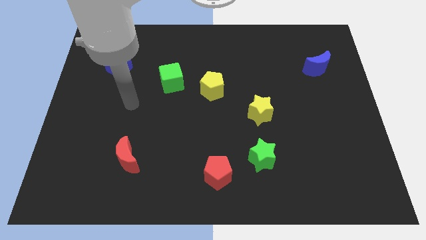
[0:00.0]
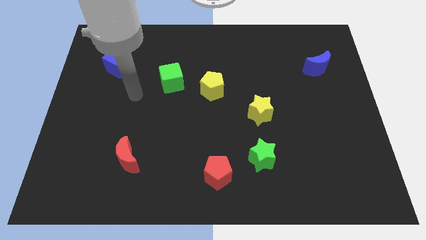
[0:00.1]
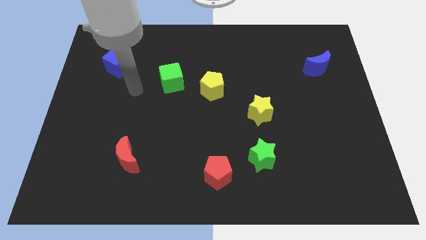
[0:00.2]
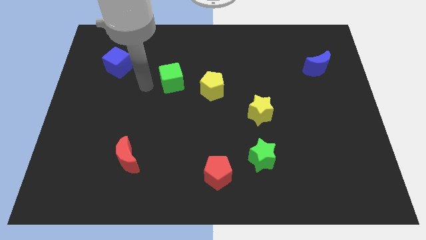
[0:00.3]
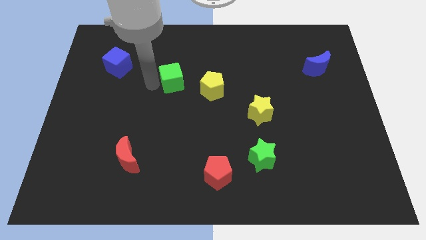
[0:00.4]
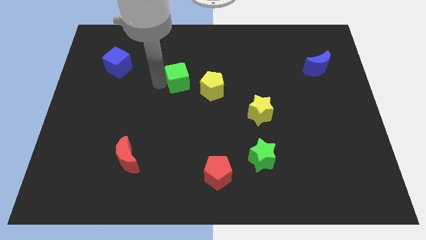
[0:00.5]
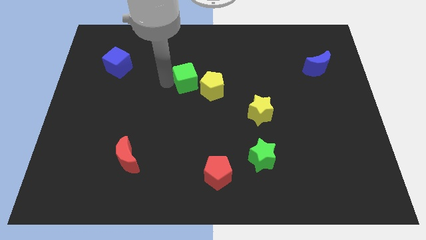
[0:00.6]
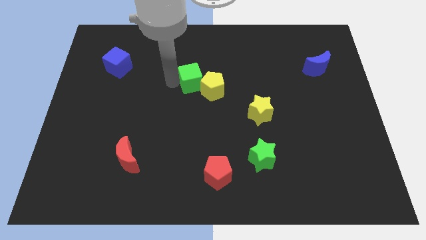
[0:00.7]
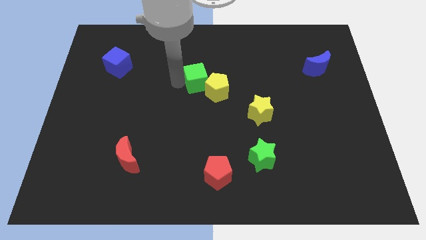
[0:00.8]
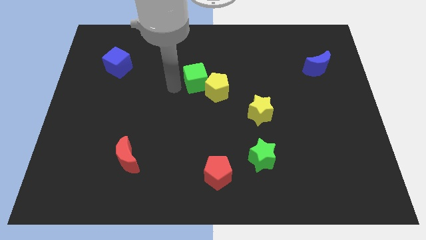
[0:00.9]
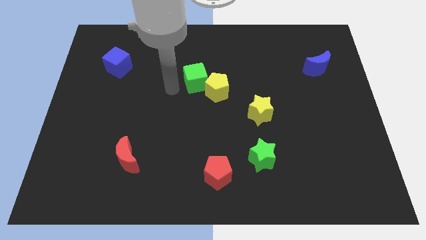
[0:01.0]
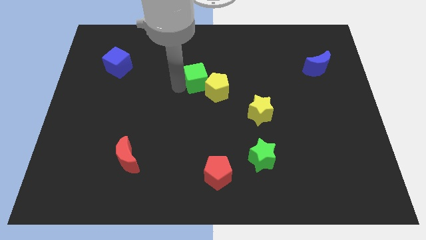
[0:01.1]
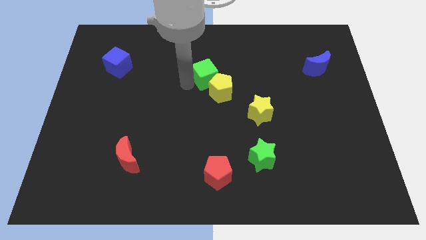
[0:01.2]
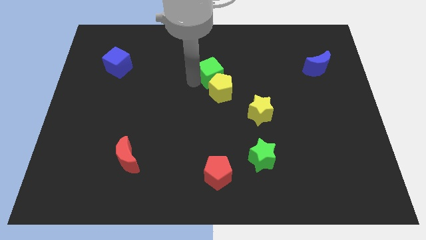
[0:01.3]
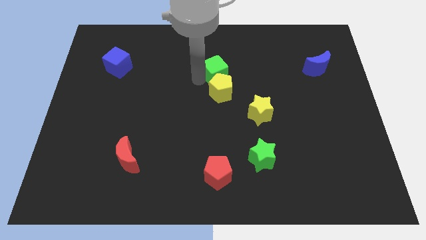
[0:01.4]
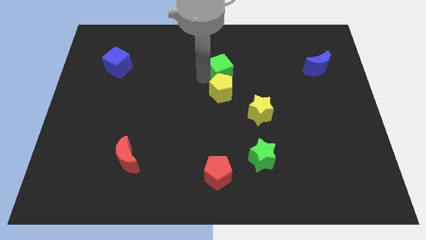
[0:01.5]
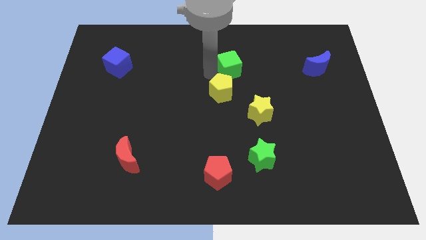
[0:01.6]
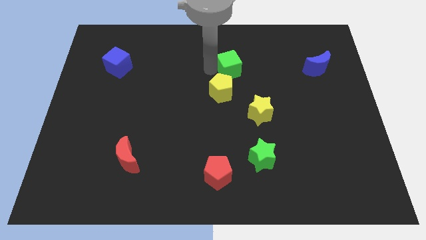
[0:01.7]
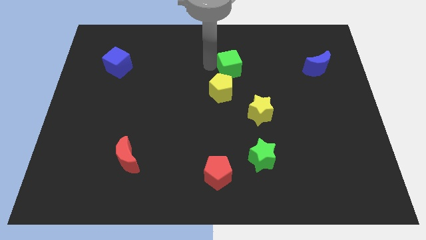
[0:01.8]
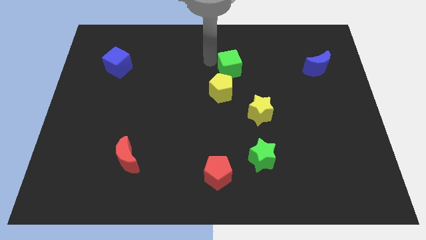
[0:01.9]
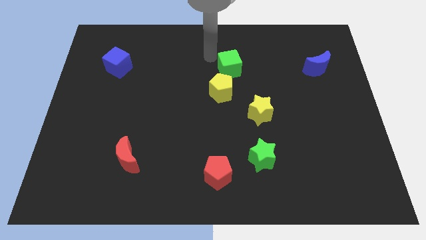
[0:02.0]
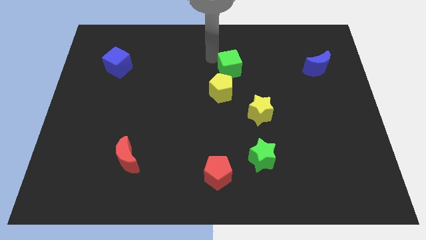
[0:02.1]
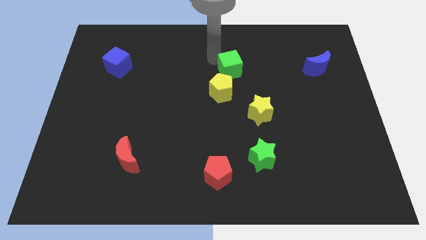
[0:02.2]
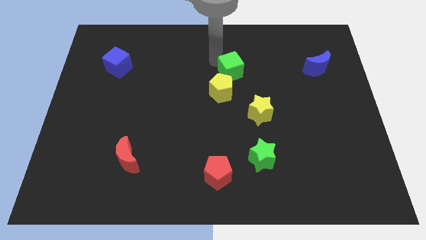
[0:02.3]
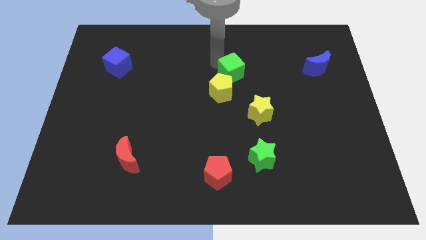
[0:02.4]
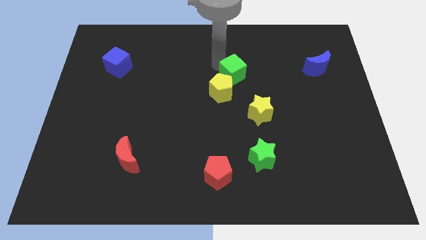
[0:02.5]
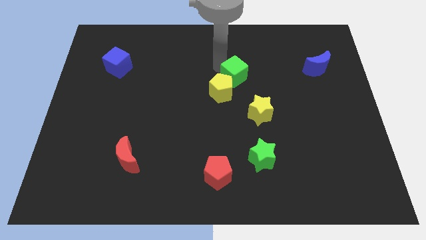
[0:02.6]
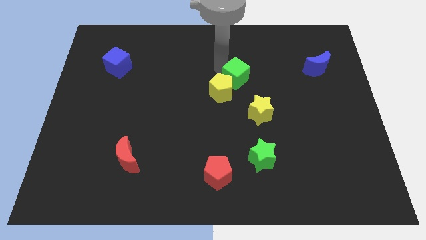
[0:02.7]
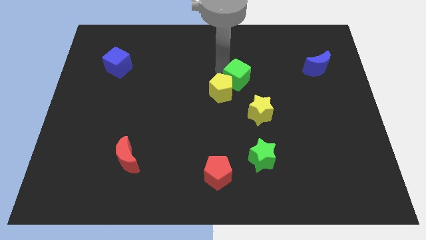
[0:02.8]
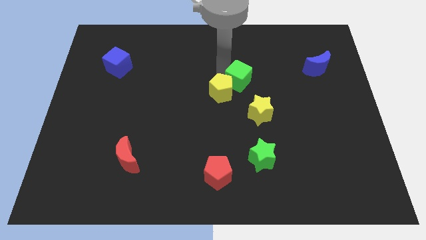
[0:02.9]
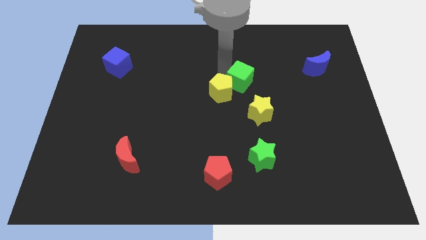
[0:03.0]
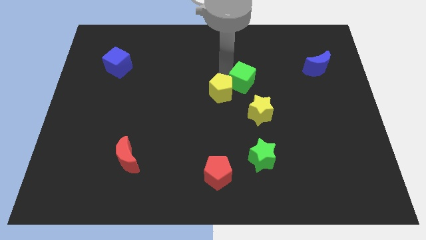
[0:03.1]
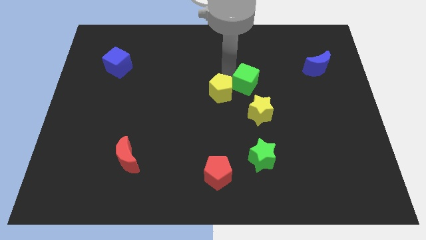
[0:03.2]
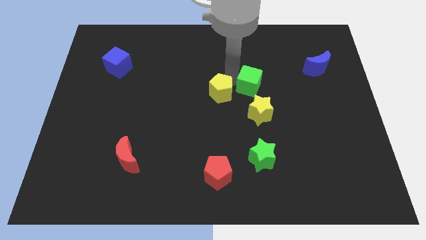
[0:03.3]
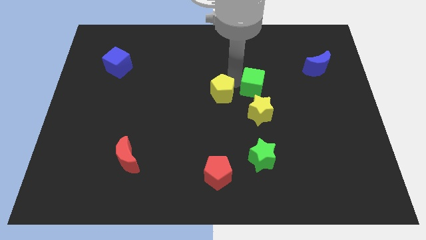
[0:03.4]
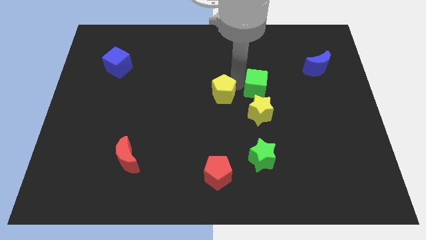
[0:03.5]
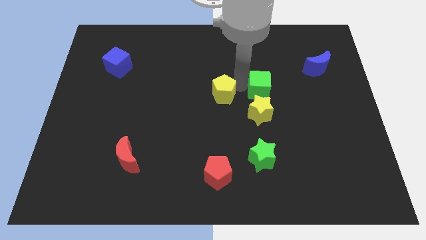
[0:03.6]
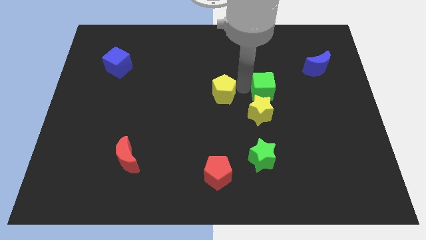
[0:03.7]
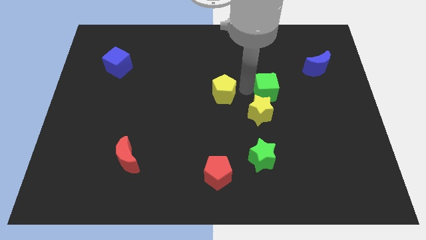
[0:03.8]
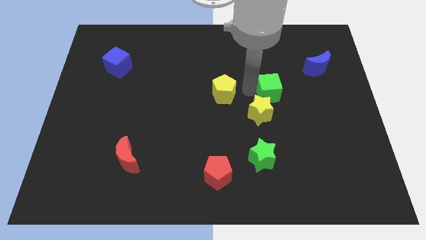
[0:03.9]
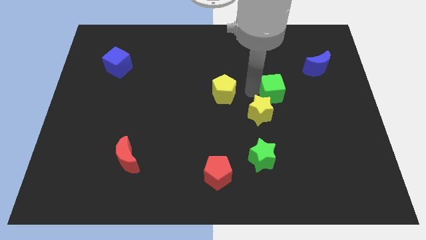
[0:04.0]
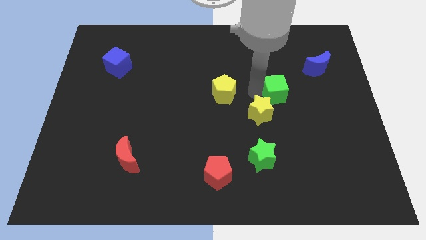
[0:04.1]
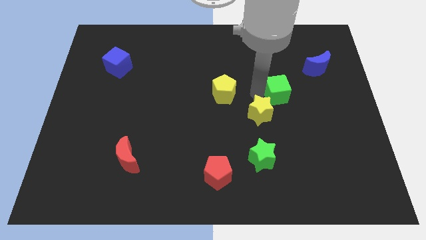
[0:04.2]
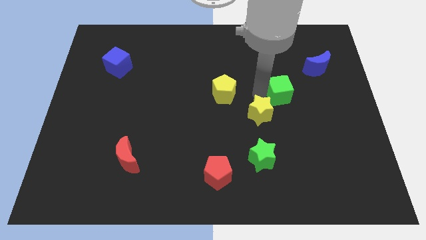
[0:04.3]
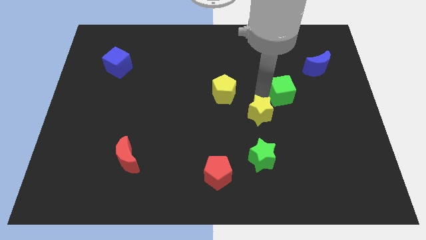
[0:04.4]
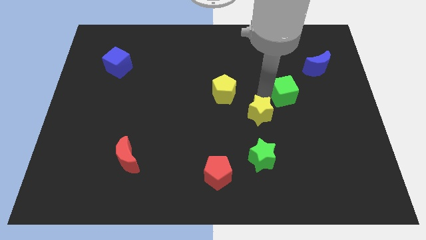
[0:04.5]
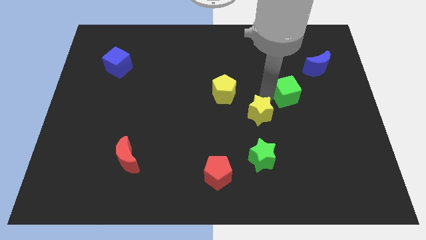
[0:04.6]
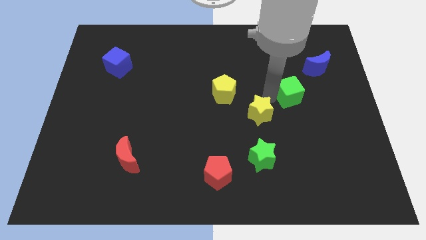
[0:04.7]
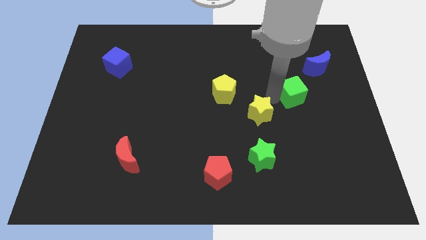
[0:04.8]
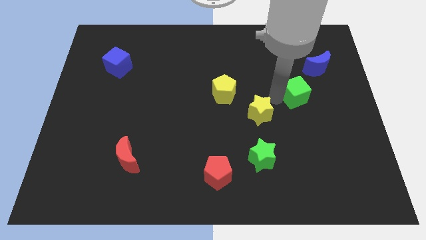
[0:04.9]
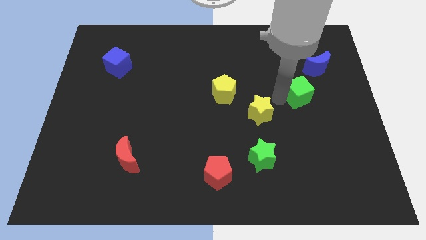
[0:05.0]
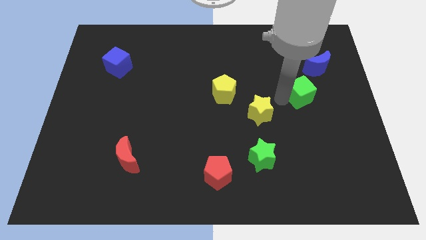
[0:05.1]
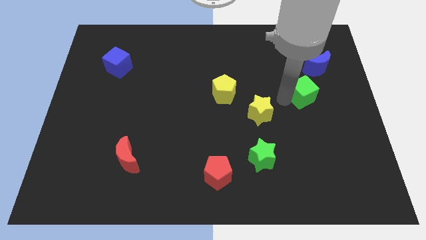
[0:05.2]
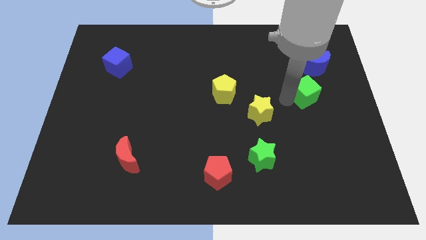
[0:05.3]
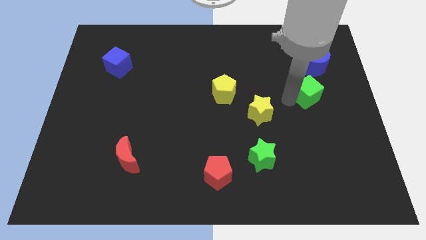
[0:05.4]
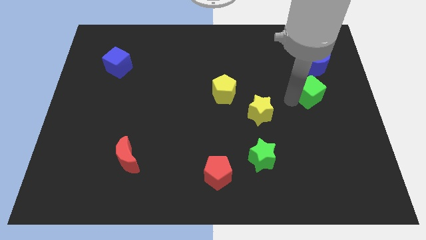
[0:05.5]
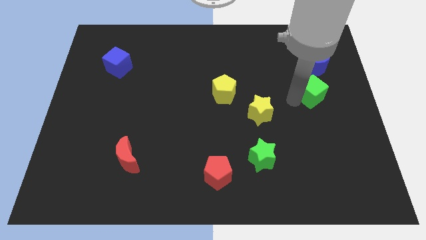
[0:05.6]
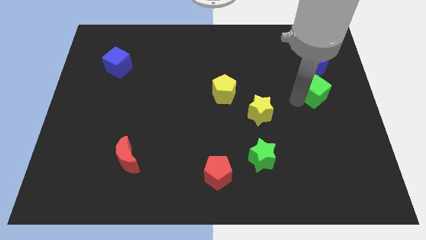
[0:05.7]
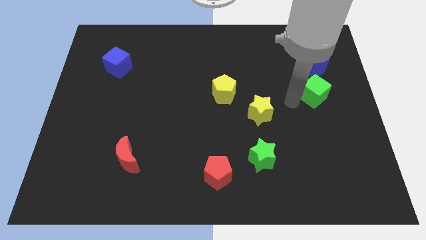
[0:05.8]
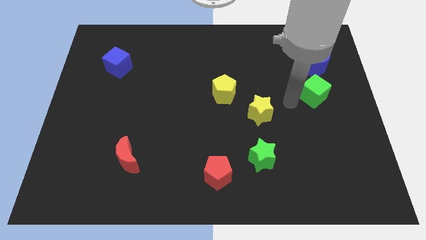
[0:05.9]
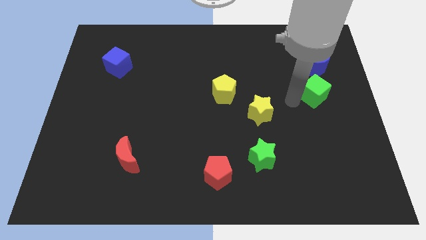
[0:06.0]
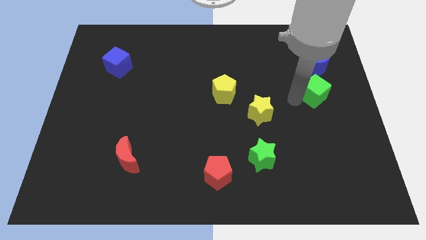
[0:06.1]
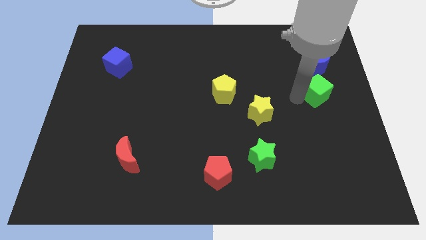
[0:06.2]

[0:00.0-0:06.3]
push the green cube to the center right

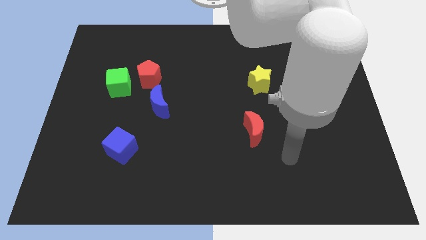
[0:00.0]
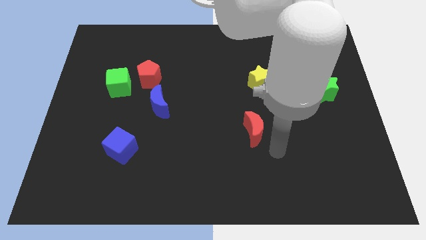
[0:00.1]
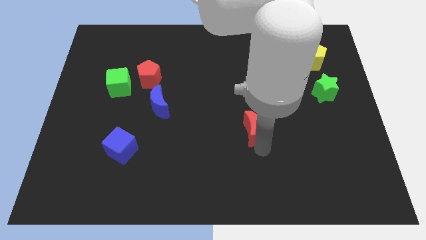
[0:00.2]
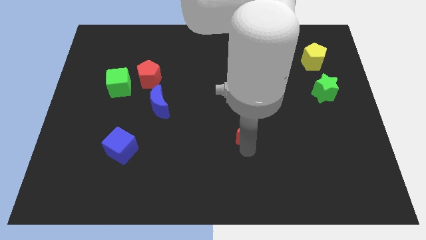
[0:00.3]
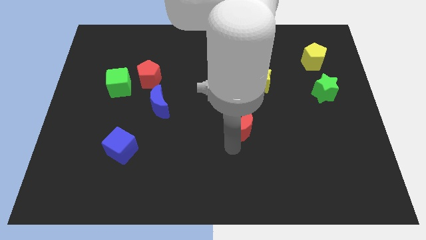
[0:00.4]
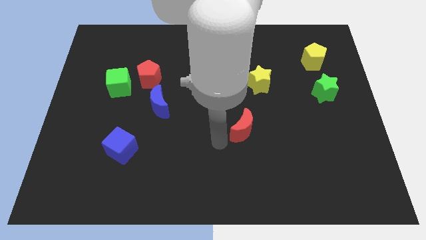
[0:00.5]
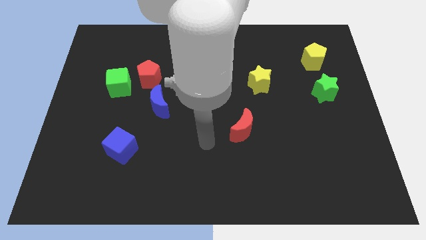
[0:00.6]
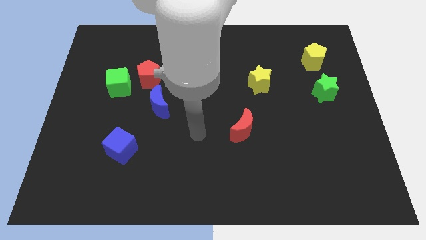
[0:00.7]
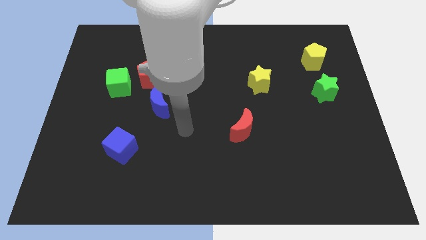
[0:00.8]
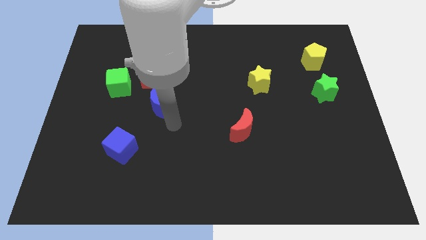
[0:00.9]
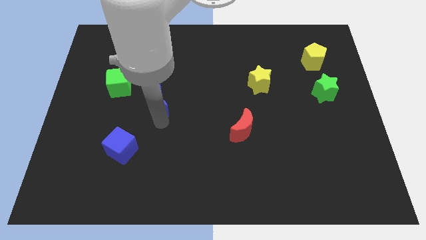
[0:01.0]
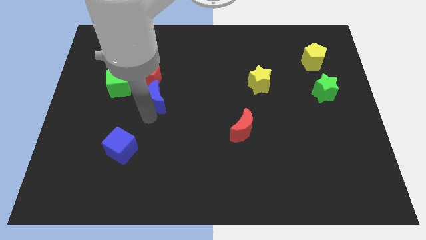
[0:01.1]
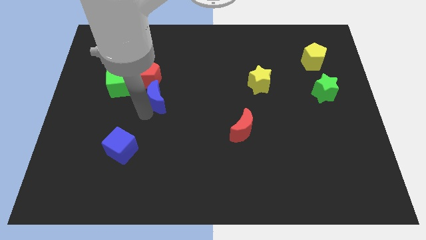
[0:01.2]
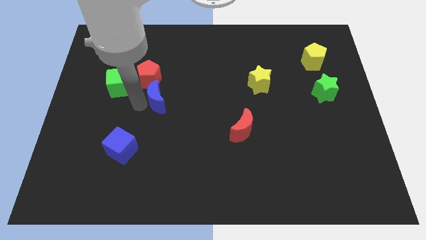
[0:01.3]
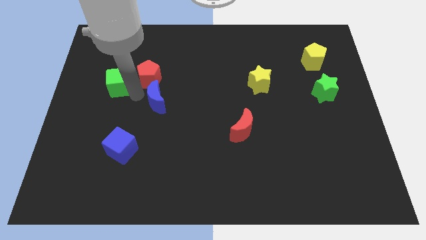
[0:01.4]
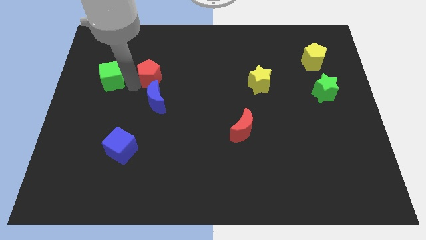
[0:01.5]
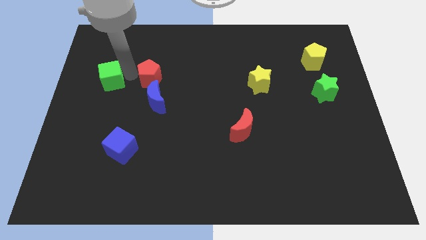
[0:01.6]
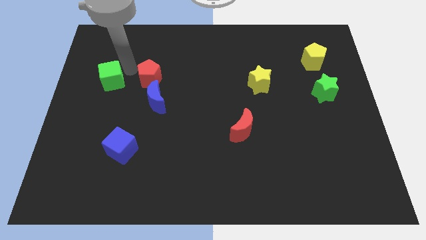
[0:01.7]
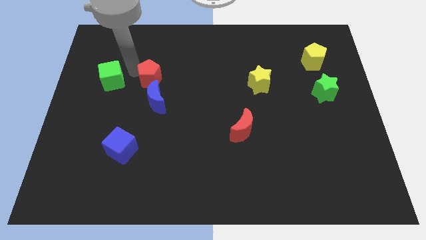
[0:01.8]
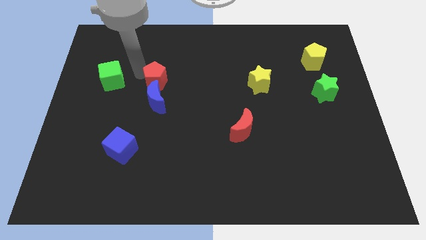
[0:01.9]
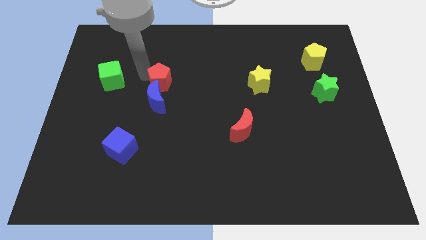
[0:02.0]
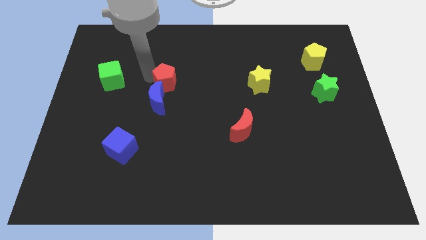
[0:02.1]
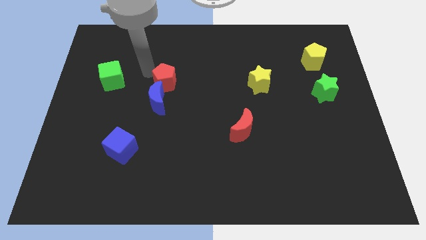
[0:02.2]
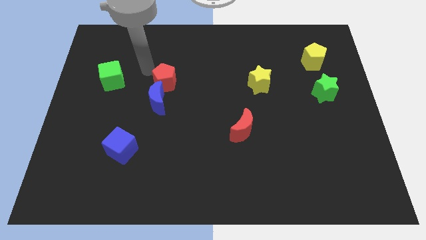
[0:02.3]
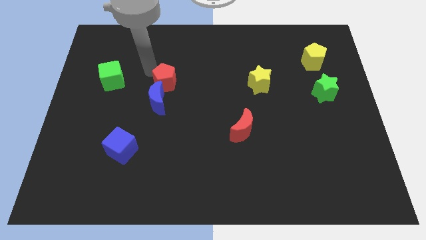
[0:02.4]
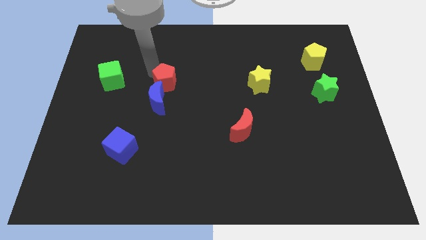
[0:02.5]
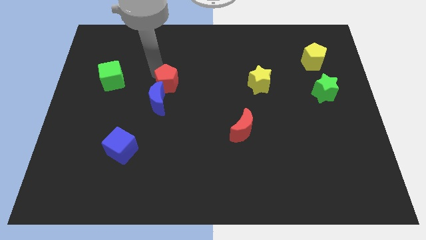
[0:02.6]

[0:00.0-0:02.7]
slide the red pentagon to the middle
